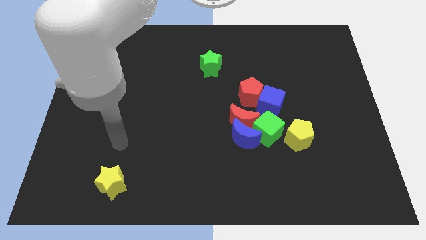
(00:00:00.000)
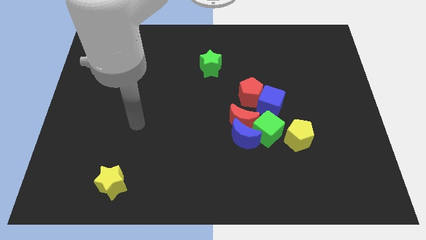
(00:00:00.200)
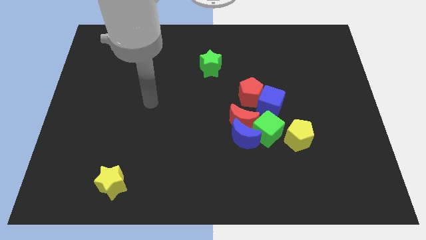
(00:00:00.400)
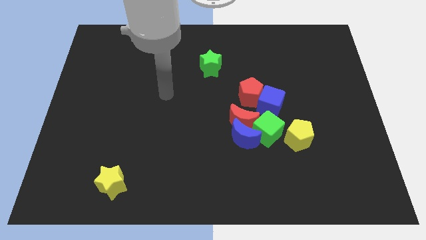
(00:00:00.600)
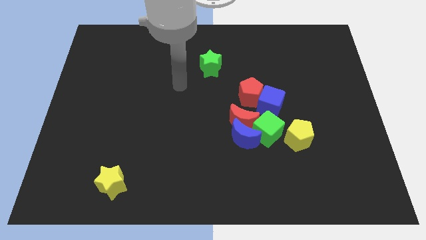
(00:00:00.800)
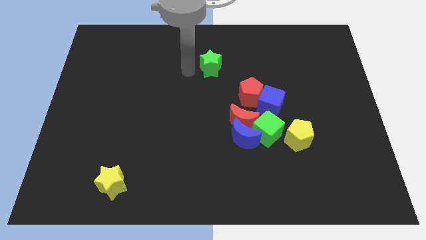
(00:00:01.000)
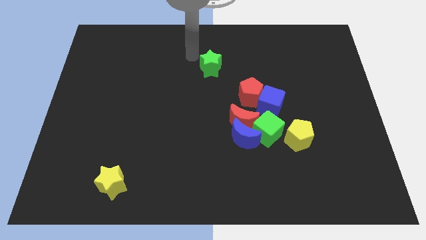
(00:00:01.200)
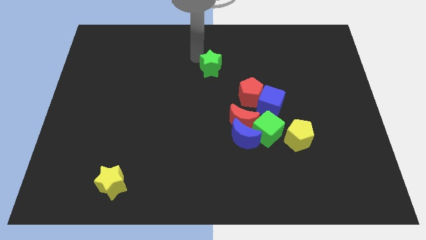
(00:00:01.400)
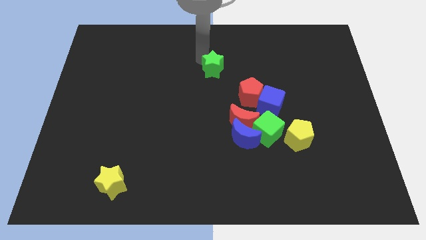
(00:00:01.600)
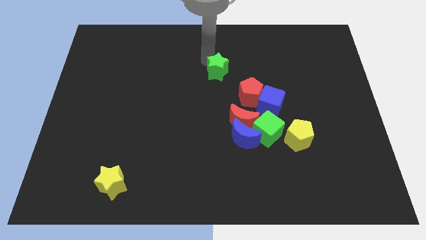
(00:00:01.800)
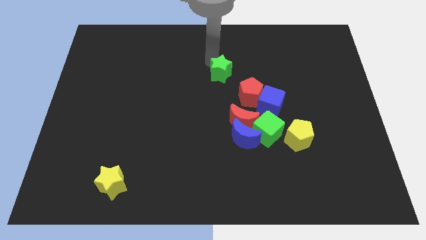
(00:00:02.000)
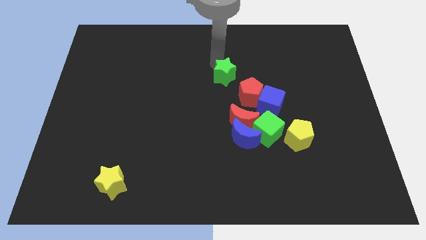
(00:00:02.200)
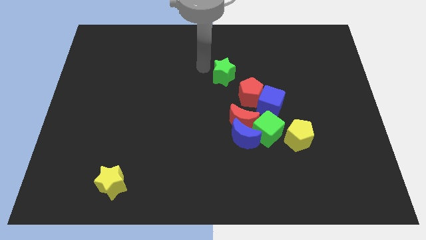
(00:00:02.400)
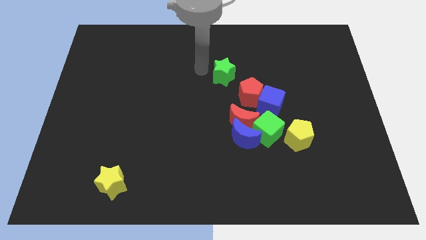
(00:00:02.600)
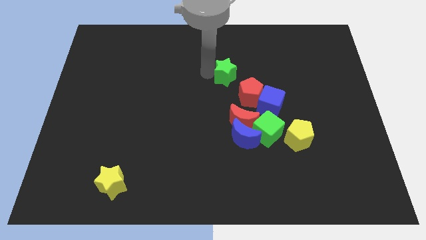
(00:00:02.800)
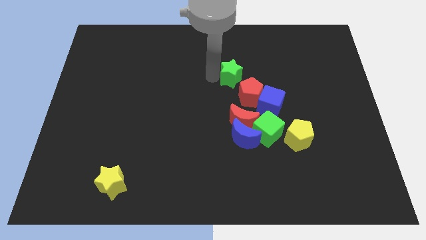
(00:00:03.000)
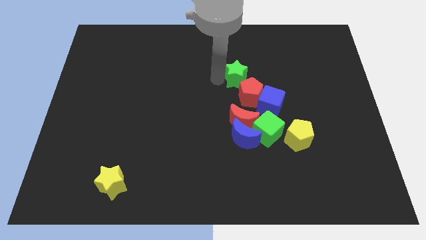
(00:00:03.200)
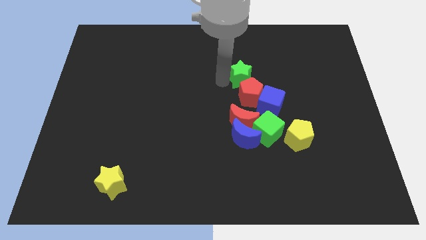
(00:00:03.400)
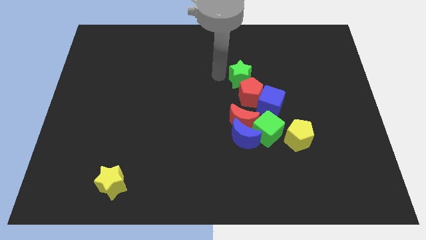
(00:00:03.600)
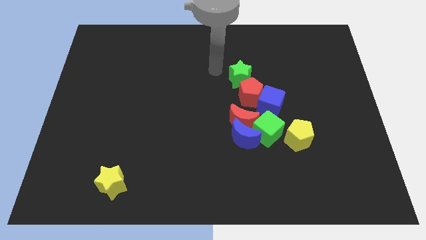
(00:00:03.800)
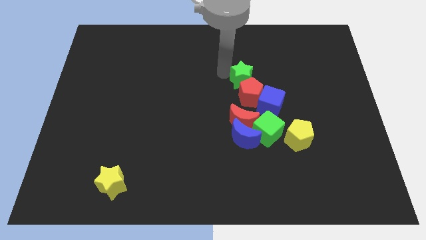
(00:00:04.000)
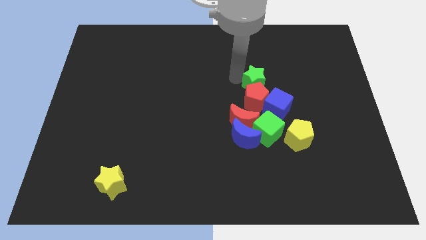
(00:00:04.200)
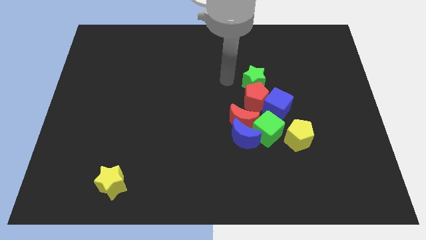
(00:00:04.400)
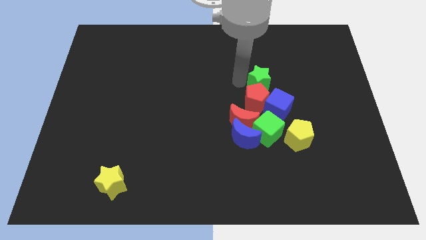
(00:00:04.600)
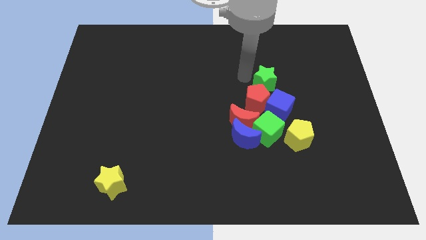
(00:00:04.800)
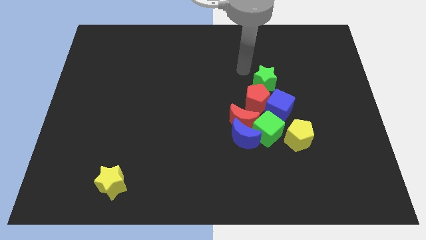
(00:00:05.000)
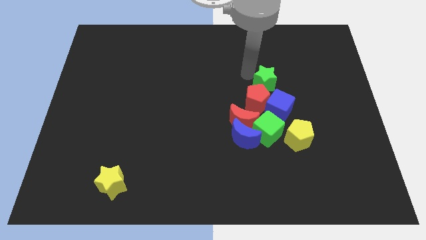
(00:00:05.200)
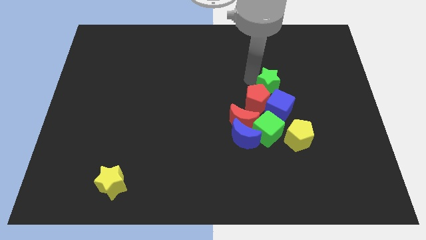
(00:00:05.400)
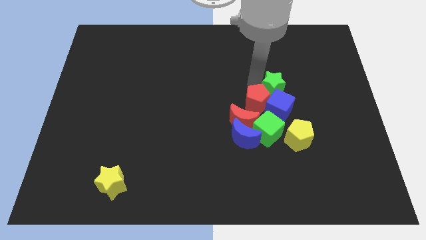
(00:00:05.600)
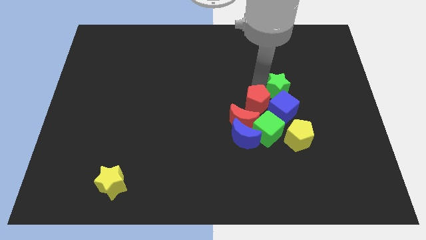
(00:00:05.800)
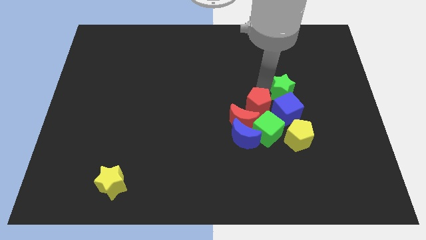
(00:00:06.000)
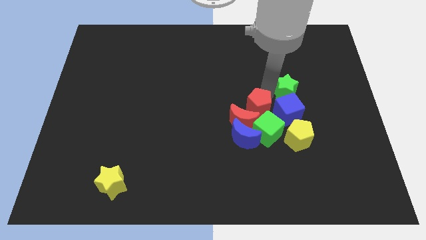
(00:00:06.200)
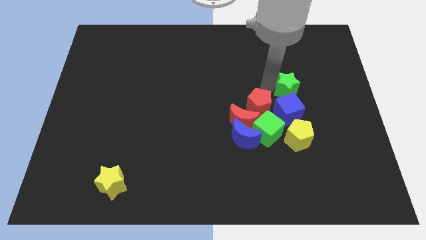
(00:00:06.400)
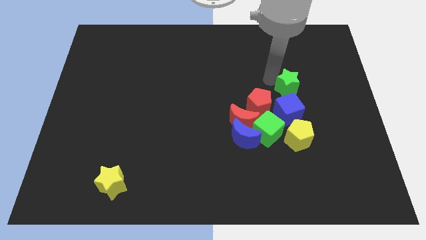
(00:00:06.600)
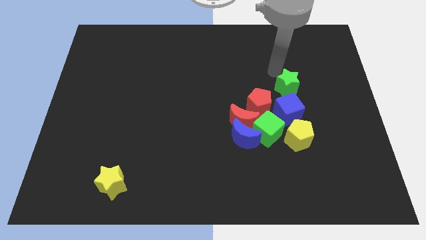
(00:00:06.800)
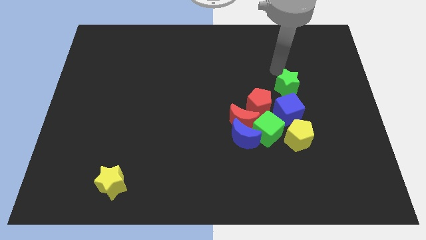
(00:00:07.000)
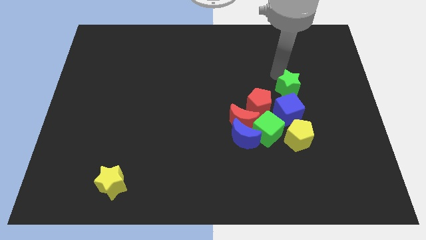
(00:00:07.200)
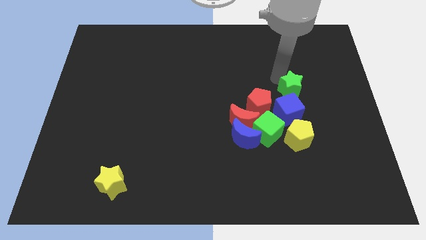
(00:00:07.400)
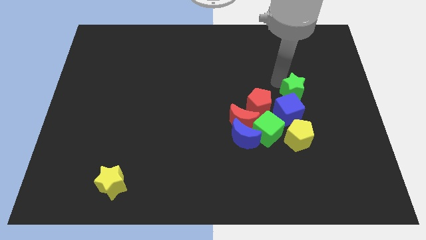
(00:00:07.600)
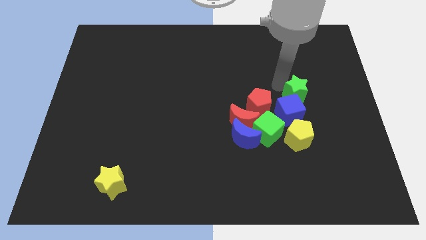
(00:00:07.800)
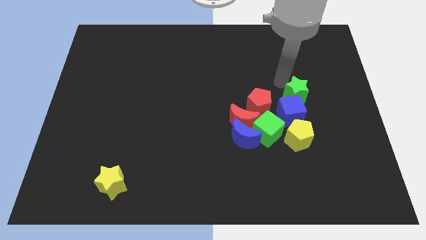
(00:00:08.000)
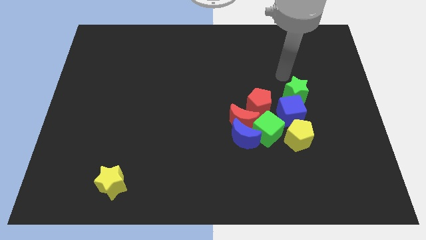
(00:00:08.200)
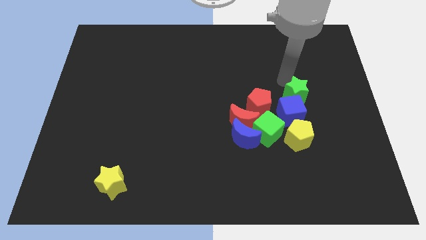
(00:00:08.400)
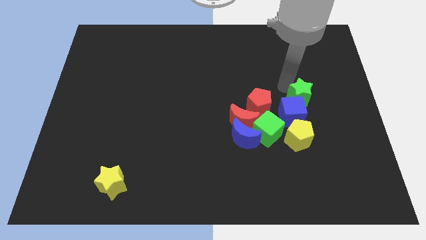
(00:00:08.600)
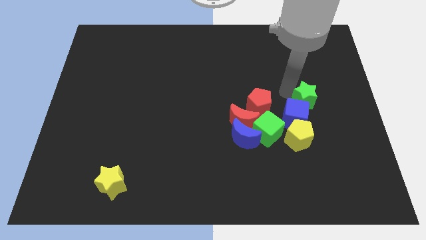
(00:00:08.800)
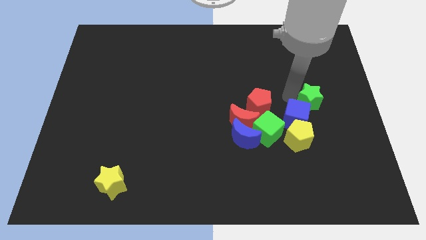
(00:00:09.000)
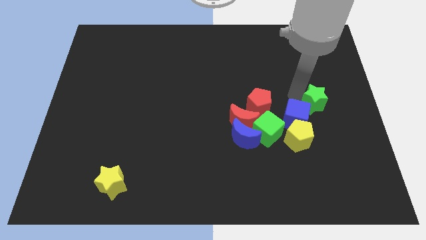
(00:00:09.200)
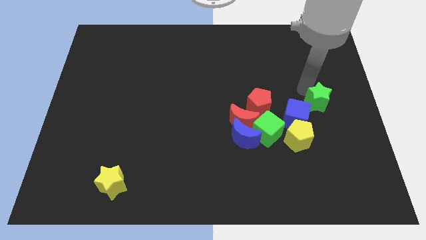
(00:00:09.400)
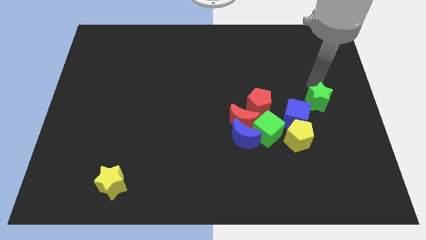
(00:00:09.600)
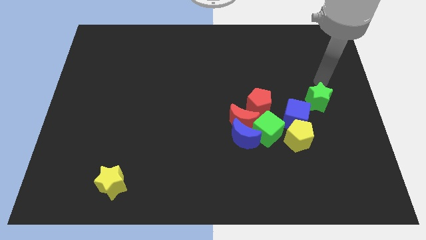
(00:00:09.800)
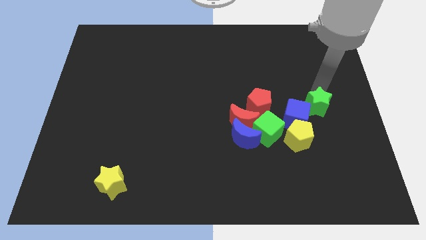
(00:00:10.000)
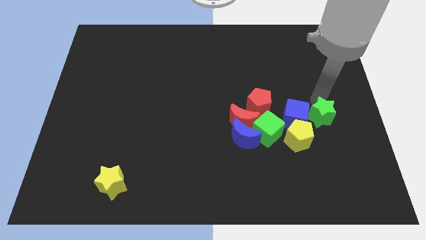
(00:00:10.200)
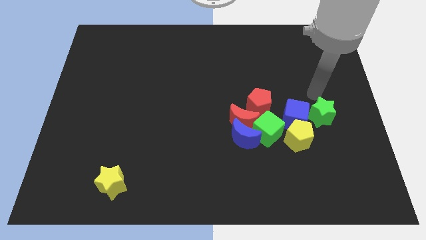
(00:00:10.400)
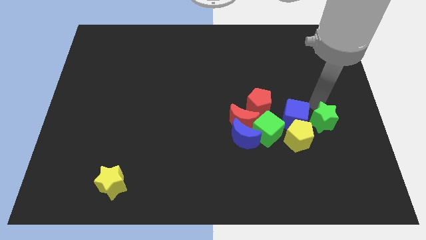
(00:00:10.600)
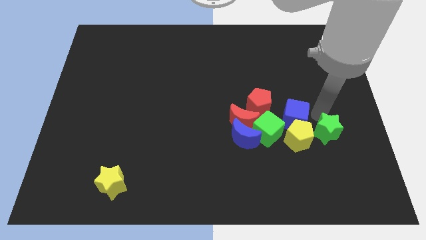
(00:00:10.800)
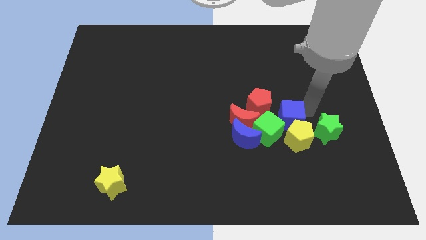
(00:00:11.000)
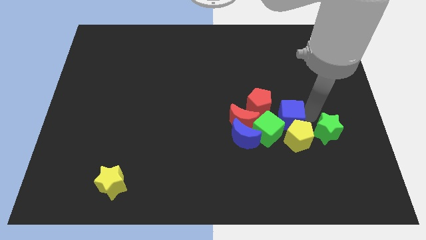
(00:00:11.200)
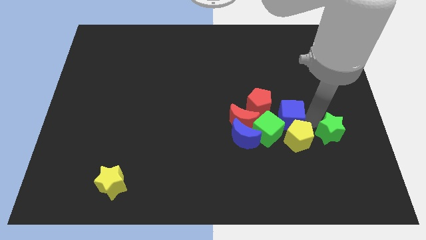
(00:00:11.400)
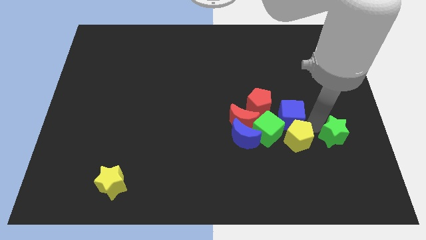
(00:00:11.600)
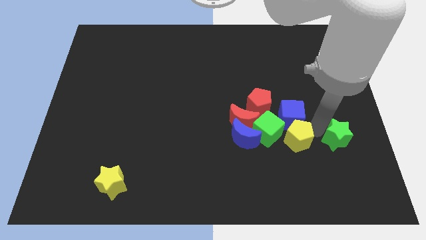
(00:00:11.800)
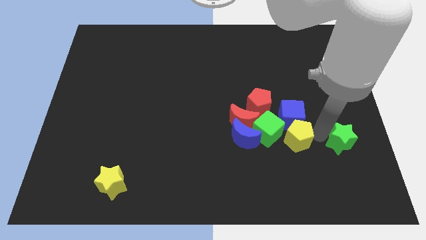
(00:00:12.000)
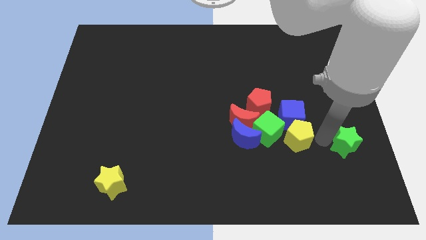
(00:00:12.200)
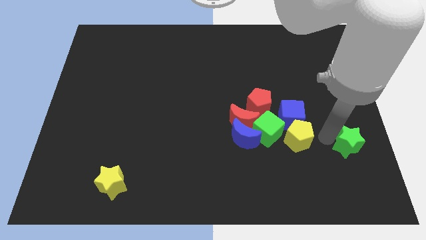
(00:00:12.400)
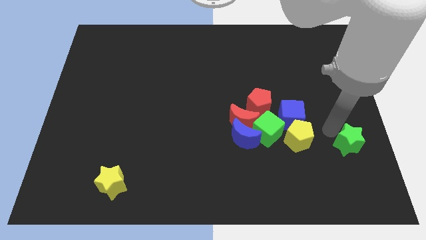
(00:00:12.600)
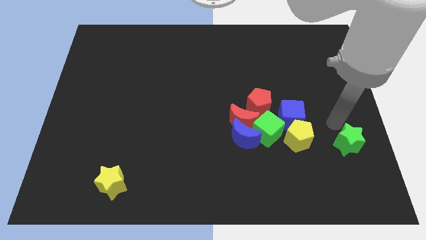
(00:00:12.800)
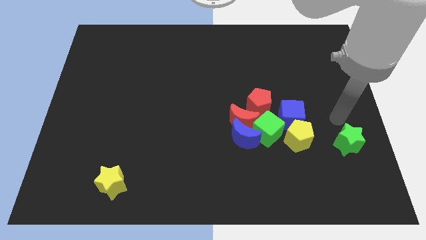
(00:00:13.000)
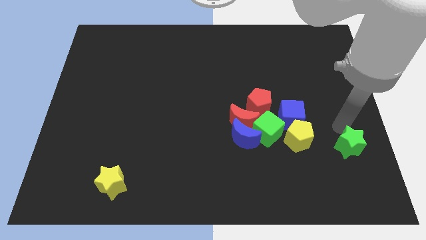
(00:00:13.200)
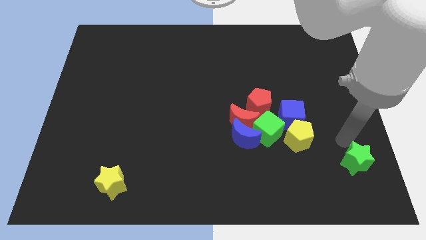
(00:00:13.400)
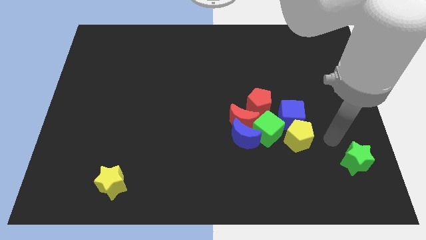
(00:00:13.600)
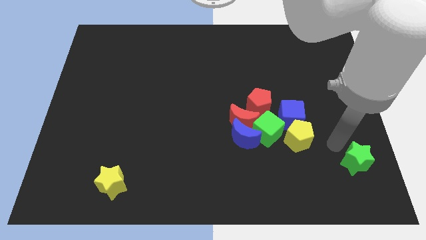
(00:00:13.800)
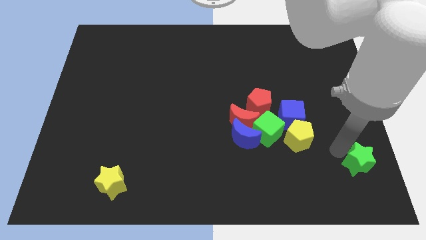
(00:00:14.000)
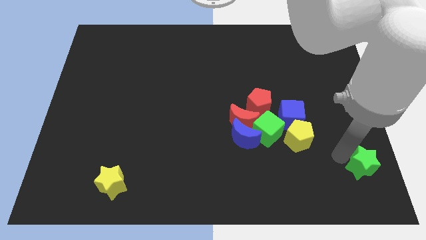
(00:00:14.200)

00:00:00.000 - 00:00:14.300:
put the green star to the bottom right of the board
